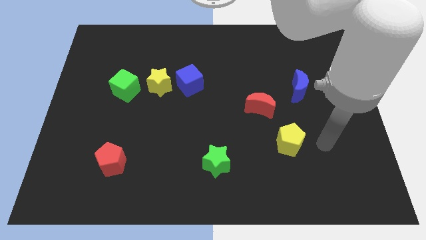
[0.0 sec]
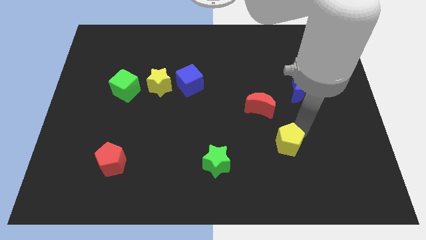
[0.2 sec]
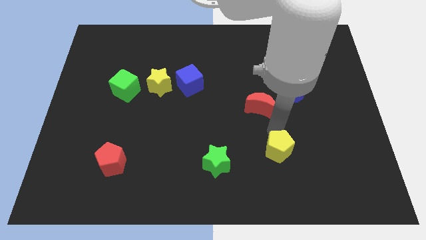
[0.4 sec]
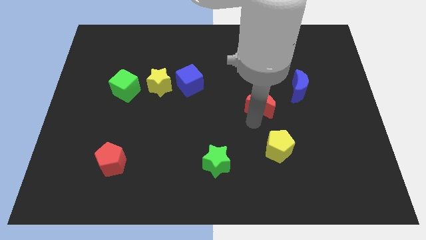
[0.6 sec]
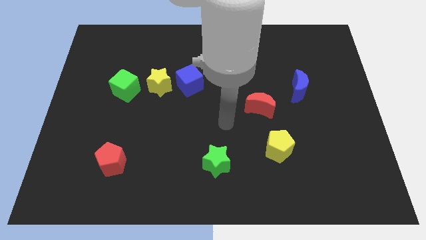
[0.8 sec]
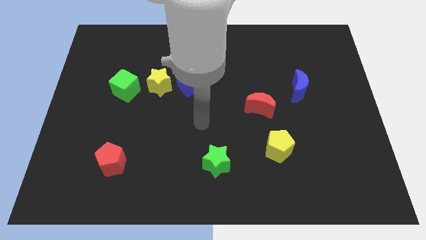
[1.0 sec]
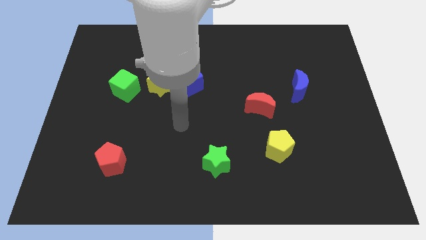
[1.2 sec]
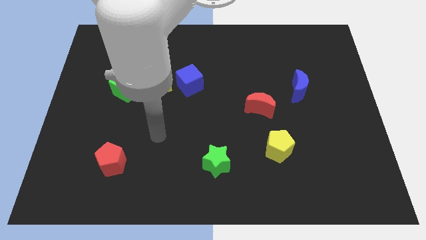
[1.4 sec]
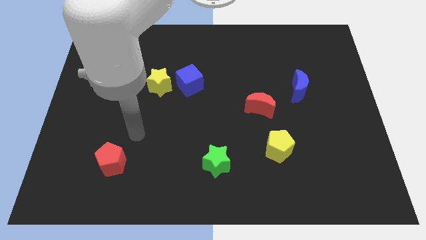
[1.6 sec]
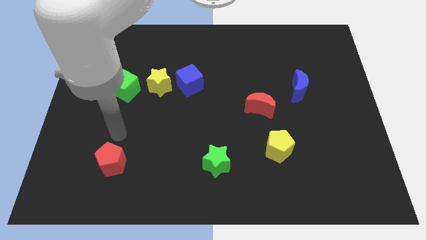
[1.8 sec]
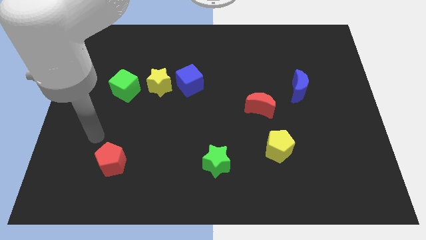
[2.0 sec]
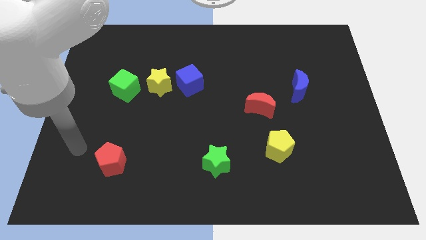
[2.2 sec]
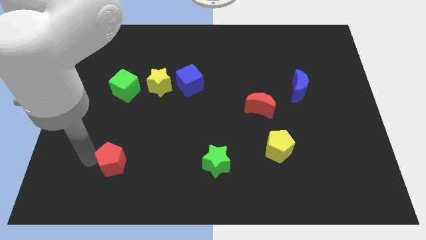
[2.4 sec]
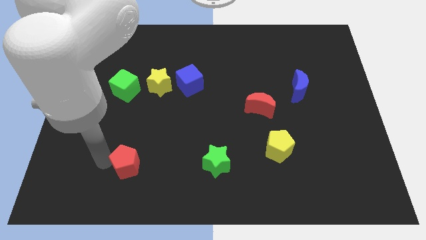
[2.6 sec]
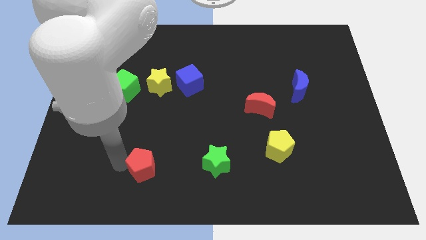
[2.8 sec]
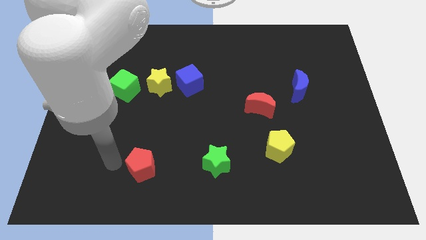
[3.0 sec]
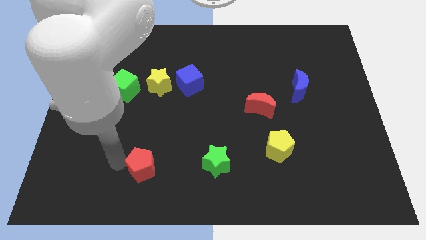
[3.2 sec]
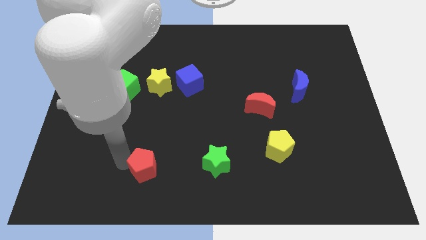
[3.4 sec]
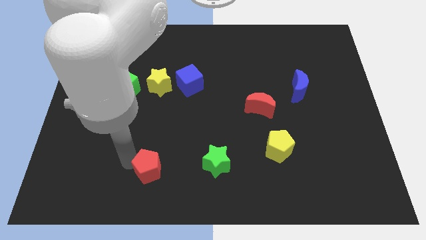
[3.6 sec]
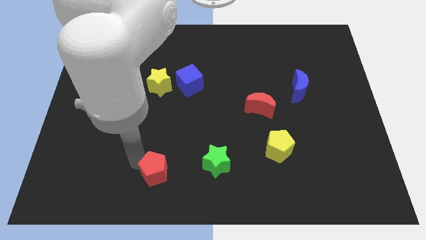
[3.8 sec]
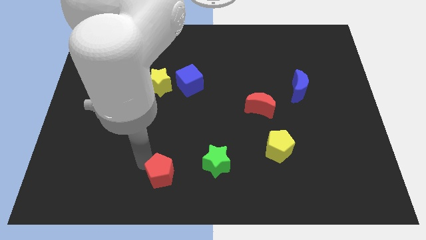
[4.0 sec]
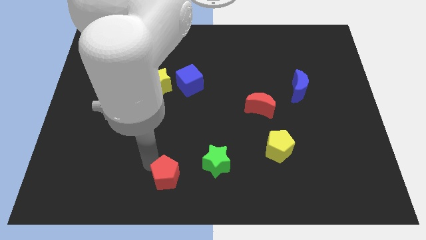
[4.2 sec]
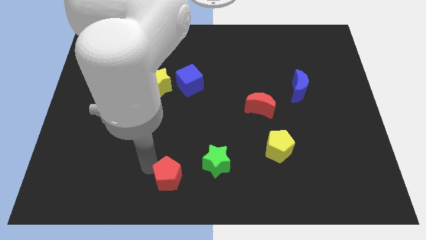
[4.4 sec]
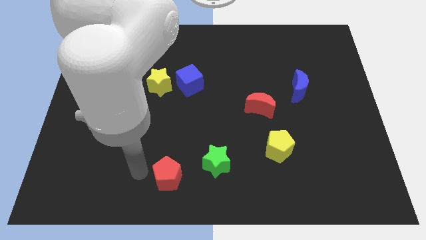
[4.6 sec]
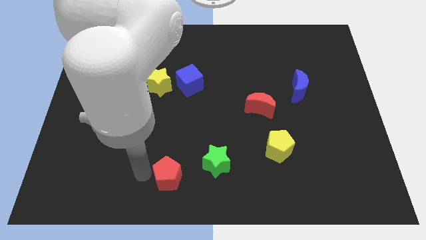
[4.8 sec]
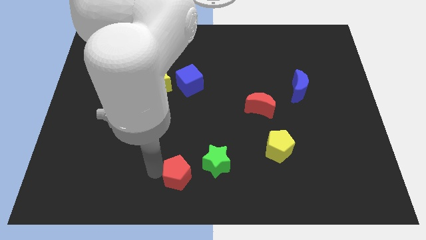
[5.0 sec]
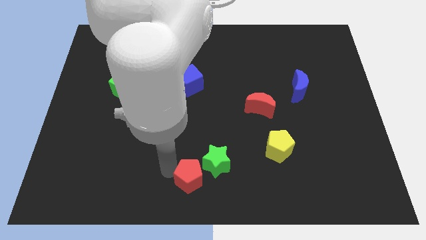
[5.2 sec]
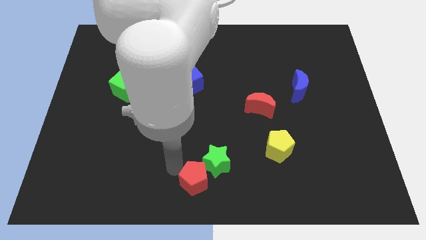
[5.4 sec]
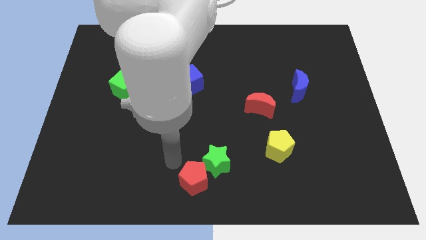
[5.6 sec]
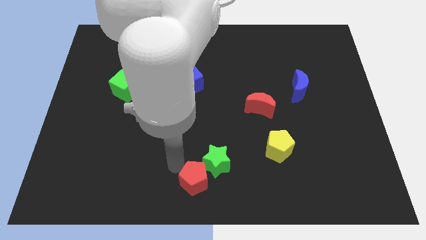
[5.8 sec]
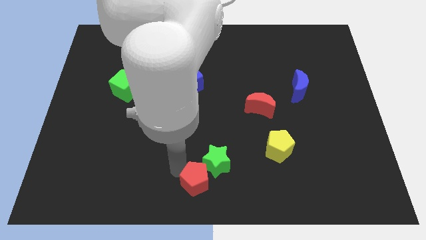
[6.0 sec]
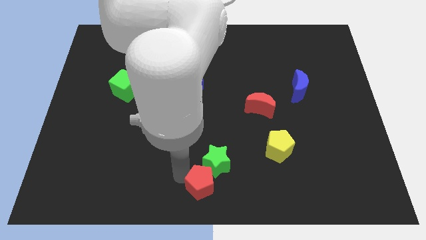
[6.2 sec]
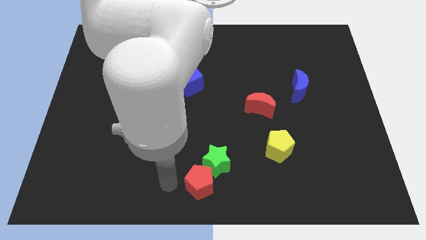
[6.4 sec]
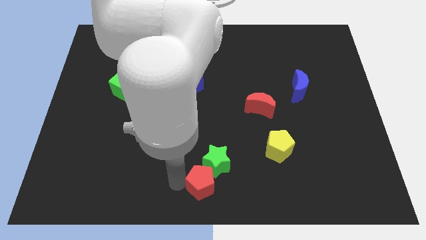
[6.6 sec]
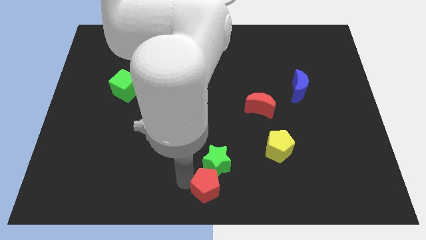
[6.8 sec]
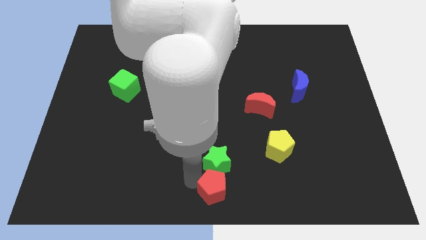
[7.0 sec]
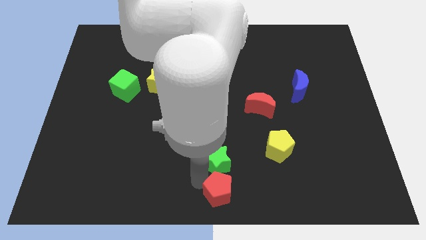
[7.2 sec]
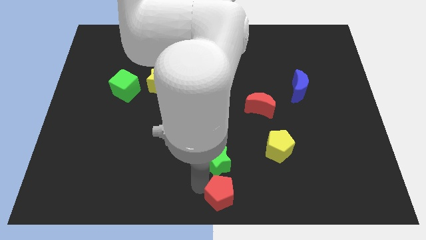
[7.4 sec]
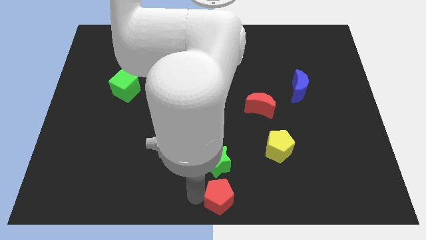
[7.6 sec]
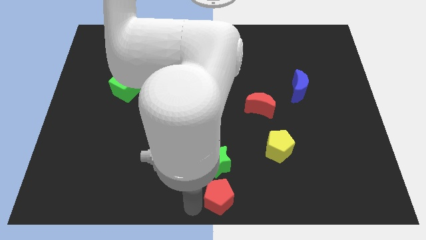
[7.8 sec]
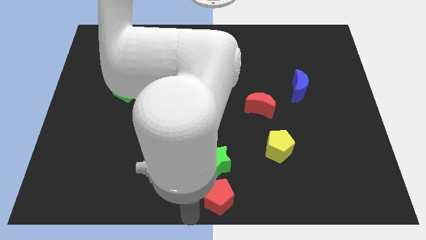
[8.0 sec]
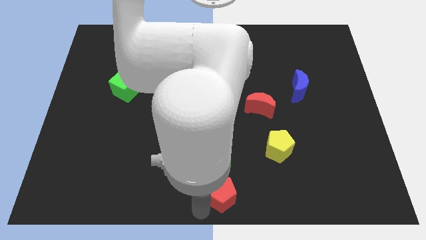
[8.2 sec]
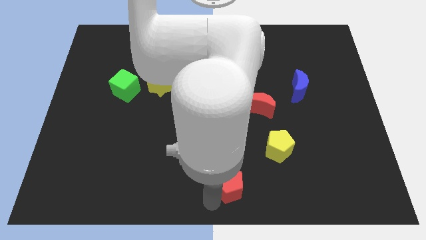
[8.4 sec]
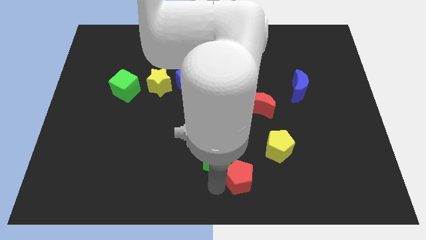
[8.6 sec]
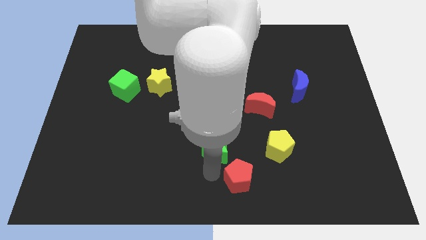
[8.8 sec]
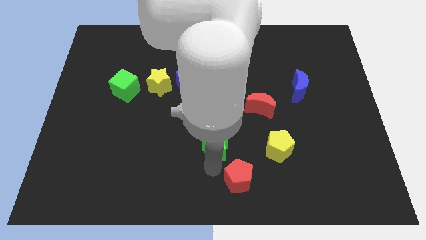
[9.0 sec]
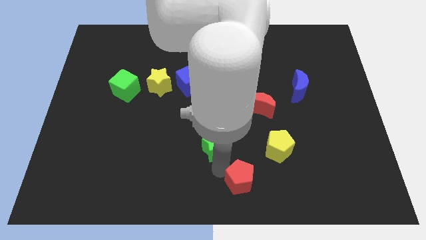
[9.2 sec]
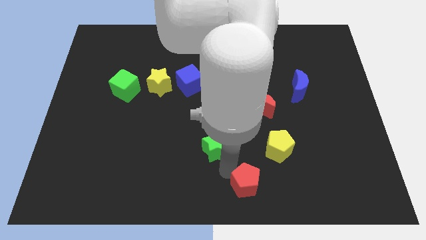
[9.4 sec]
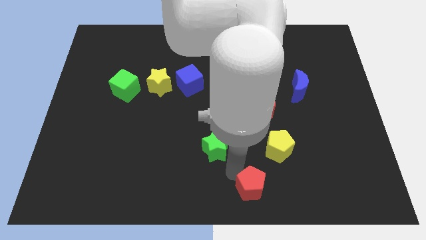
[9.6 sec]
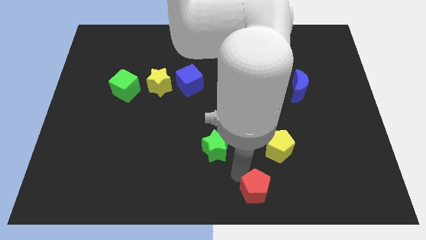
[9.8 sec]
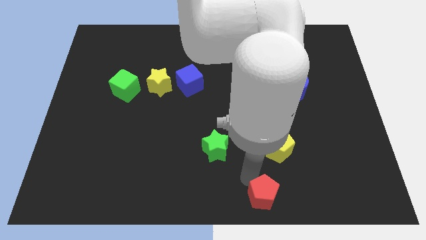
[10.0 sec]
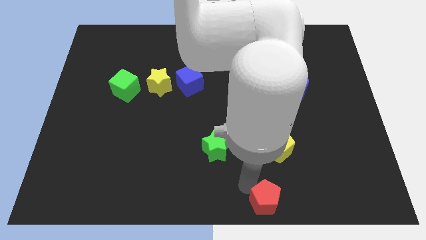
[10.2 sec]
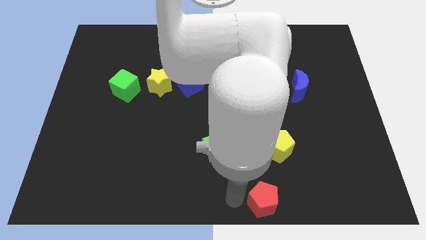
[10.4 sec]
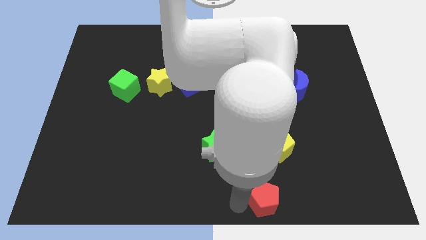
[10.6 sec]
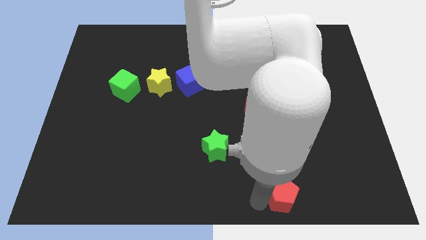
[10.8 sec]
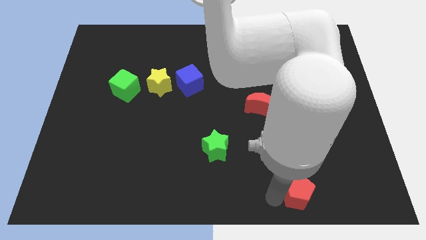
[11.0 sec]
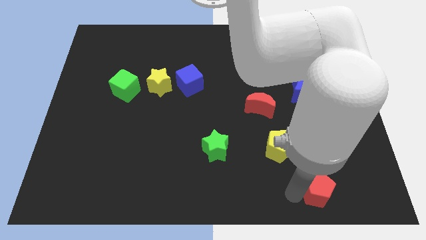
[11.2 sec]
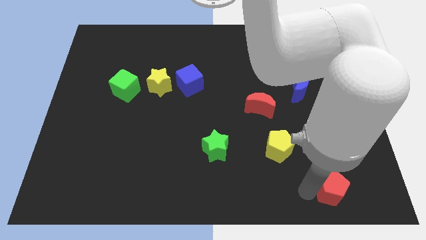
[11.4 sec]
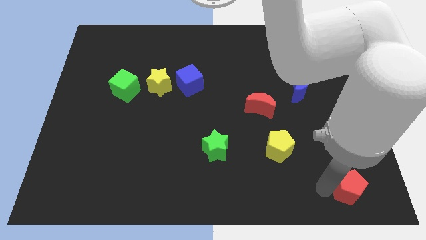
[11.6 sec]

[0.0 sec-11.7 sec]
put the red pentagon to the bottom right corner

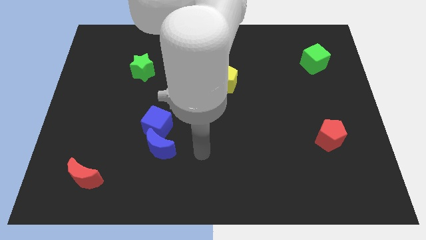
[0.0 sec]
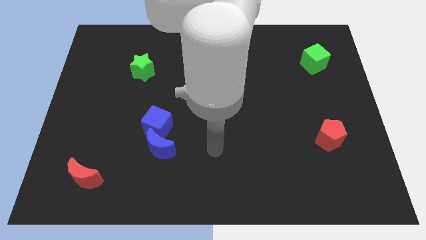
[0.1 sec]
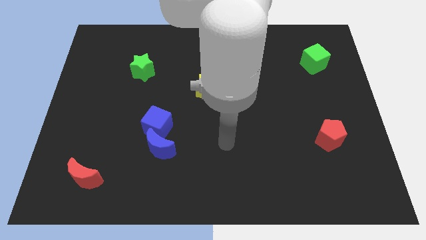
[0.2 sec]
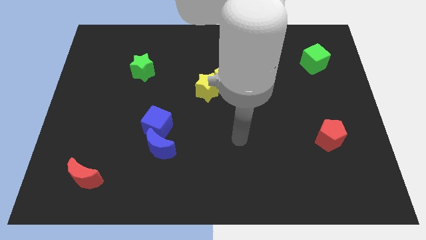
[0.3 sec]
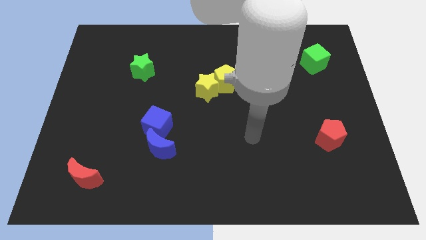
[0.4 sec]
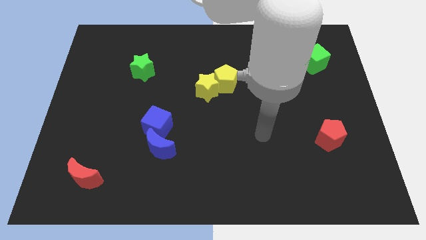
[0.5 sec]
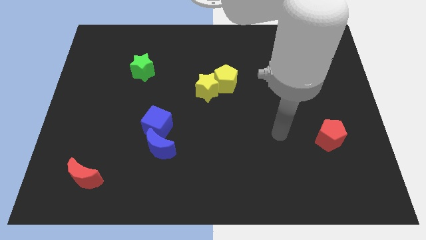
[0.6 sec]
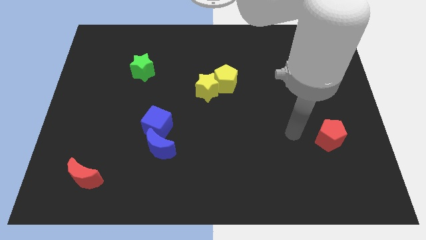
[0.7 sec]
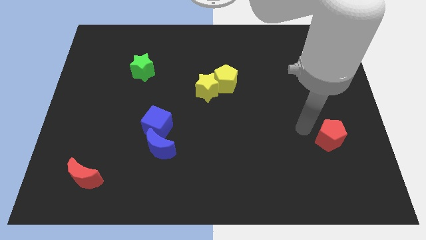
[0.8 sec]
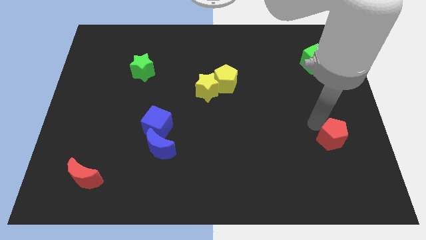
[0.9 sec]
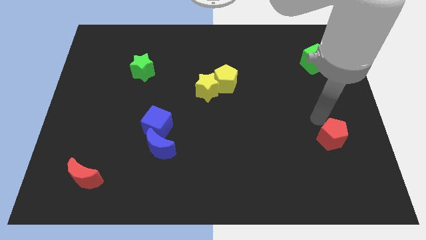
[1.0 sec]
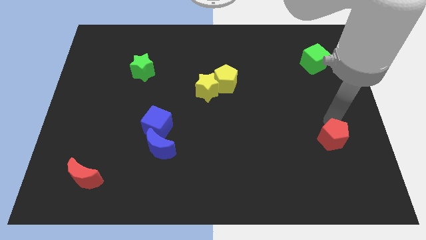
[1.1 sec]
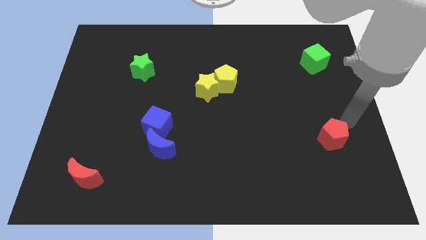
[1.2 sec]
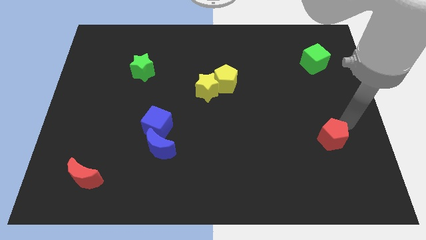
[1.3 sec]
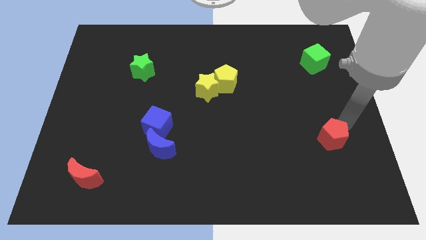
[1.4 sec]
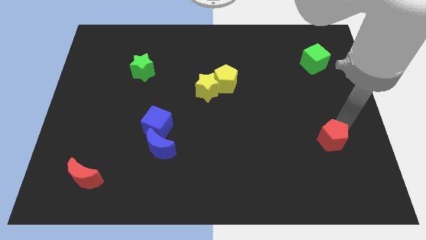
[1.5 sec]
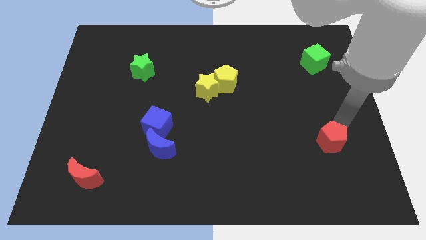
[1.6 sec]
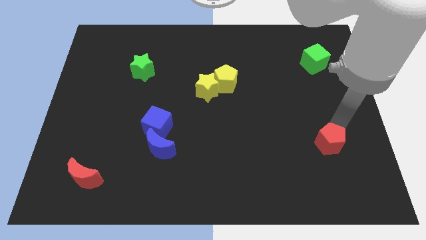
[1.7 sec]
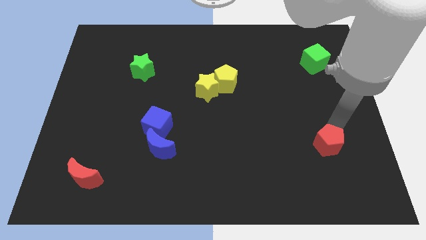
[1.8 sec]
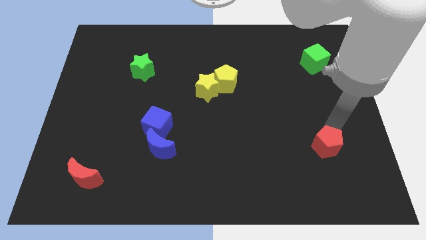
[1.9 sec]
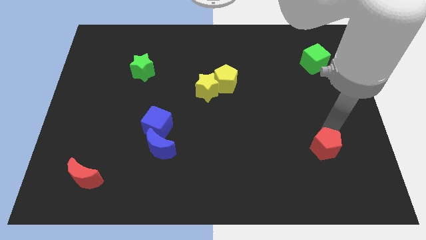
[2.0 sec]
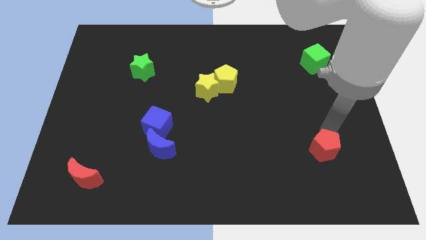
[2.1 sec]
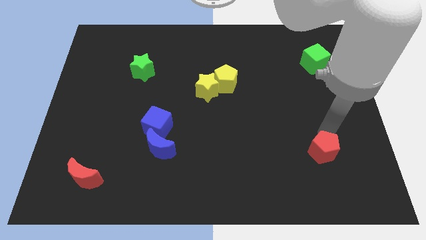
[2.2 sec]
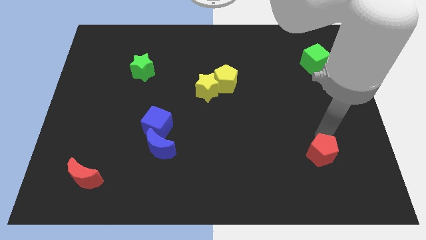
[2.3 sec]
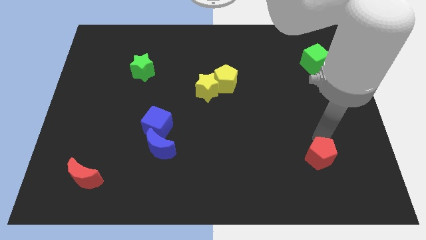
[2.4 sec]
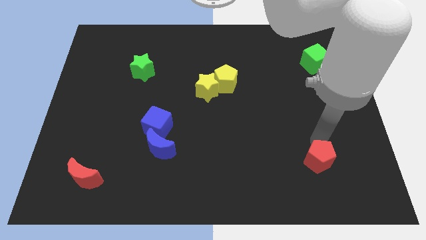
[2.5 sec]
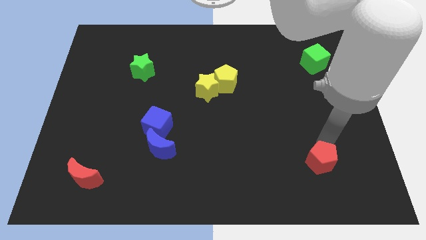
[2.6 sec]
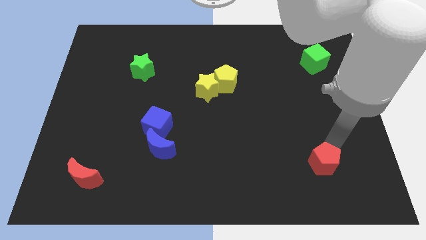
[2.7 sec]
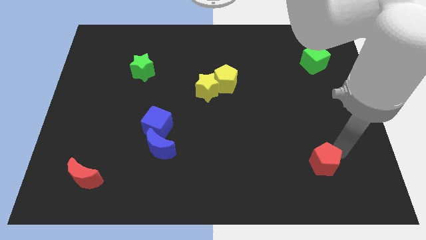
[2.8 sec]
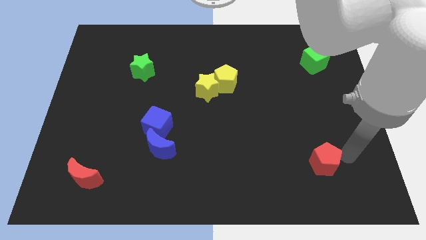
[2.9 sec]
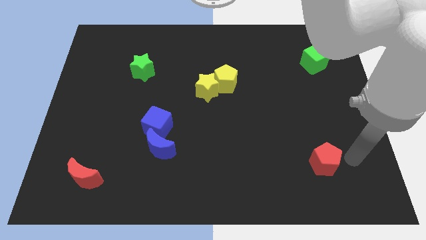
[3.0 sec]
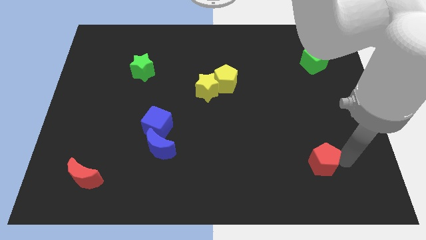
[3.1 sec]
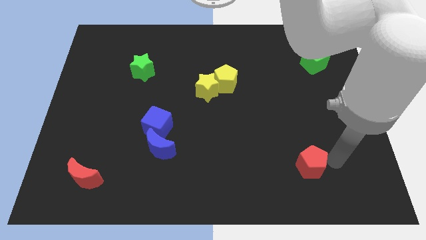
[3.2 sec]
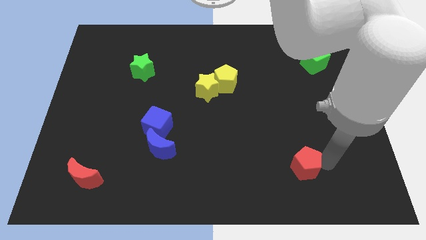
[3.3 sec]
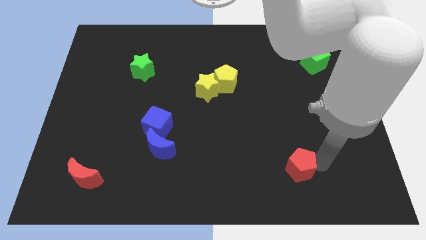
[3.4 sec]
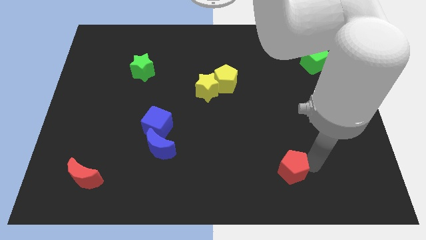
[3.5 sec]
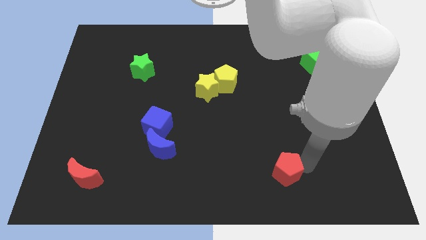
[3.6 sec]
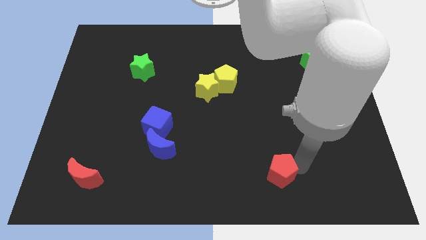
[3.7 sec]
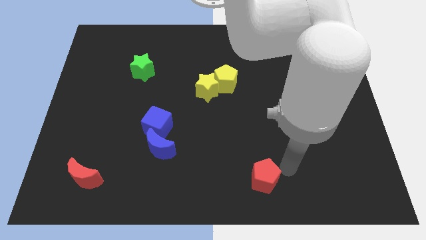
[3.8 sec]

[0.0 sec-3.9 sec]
push the red pentagon to the bottom side
